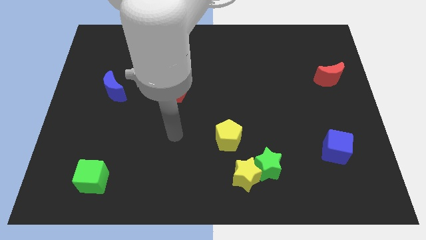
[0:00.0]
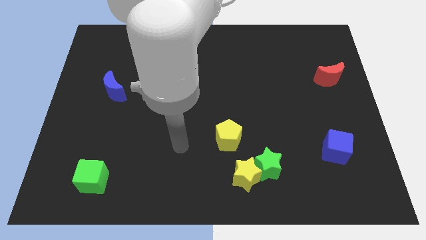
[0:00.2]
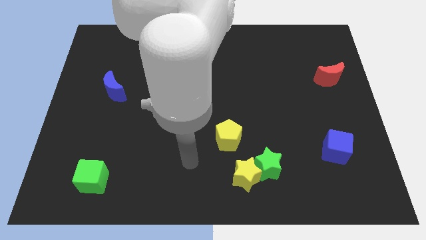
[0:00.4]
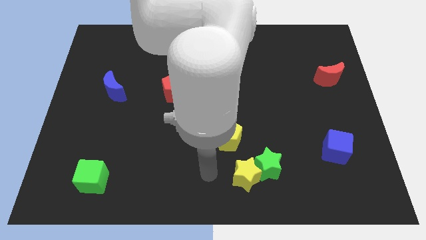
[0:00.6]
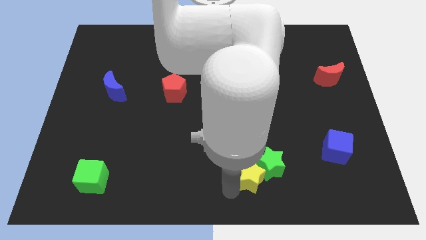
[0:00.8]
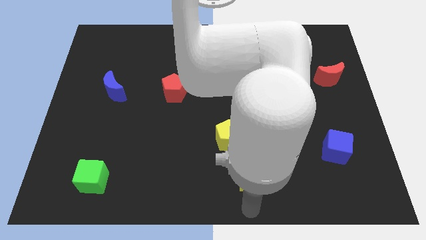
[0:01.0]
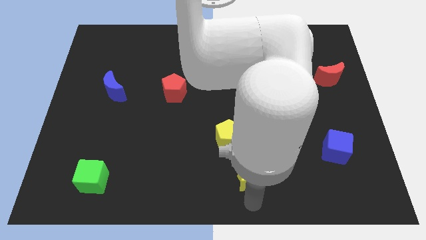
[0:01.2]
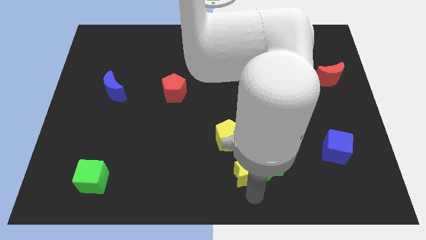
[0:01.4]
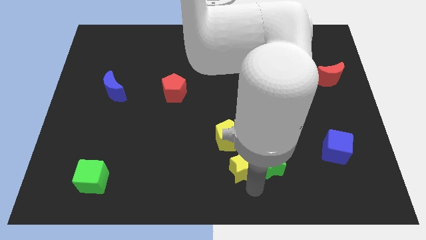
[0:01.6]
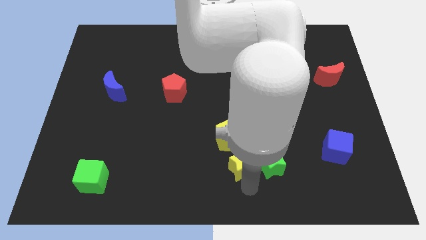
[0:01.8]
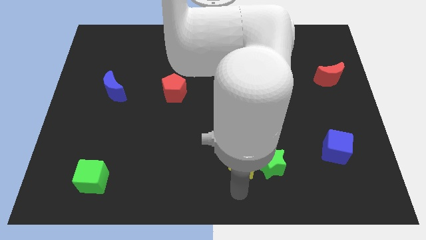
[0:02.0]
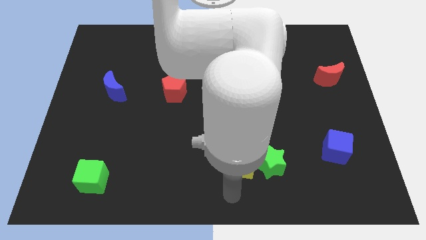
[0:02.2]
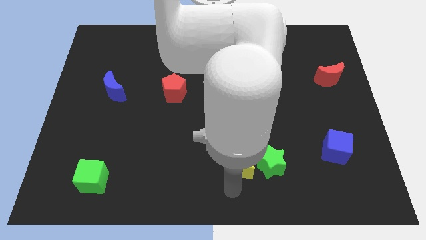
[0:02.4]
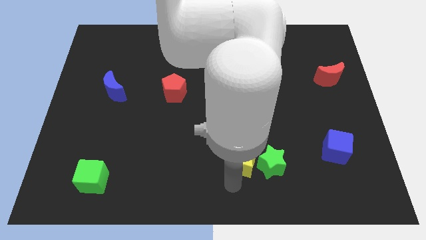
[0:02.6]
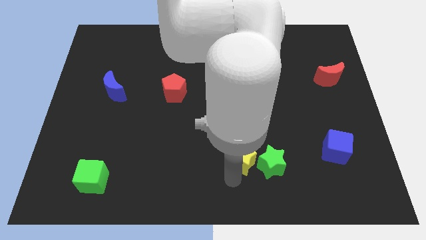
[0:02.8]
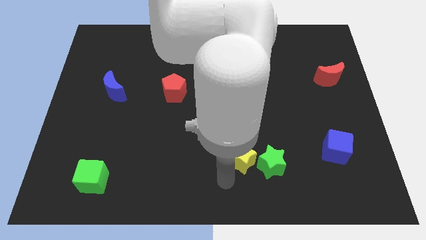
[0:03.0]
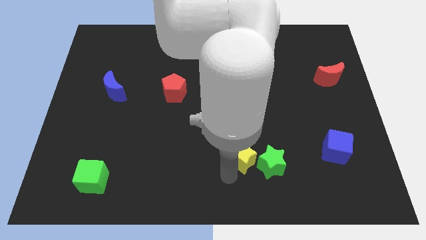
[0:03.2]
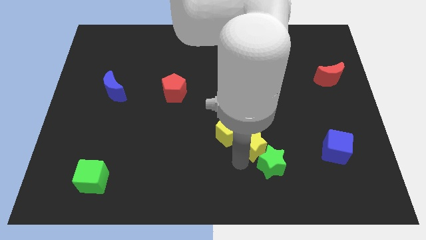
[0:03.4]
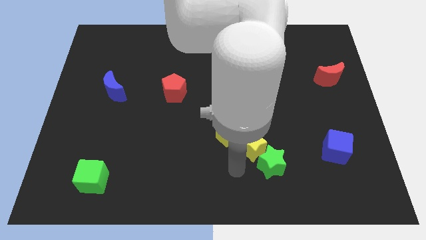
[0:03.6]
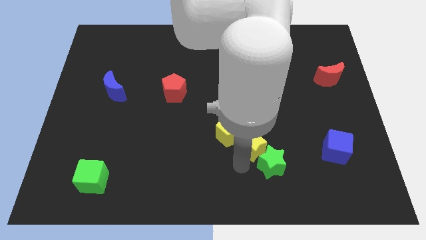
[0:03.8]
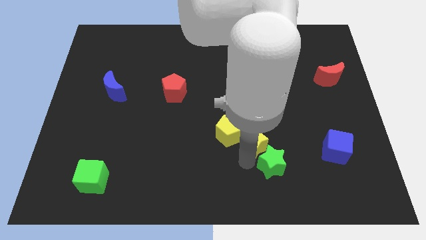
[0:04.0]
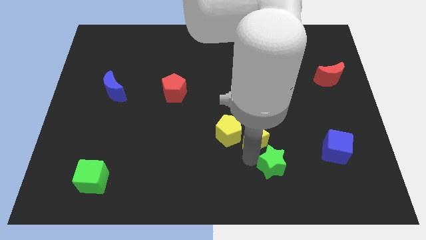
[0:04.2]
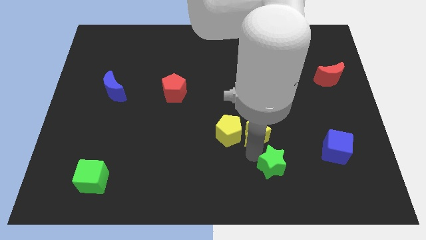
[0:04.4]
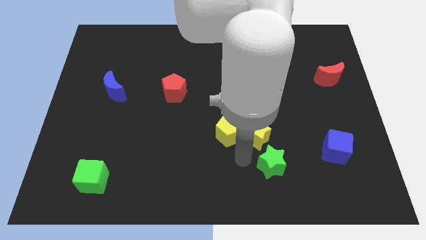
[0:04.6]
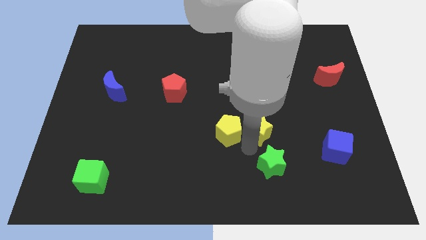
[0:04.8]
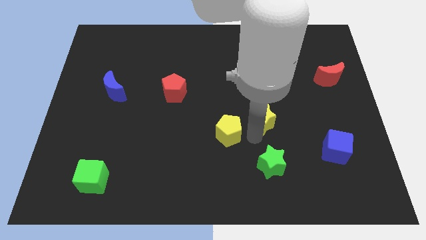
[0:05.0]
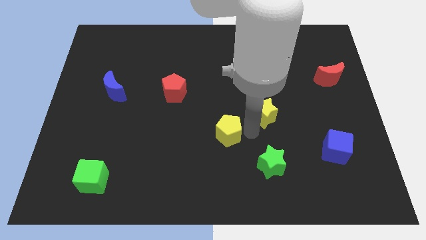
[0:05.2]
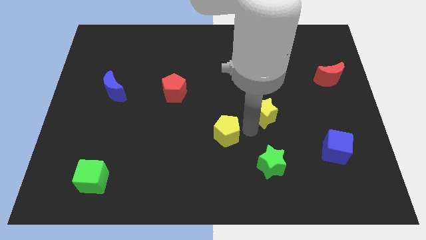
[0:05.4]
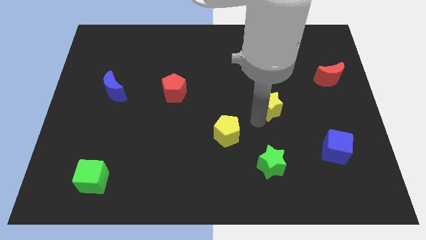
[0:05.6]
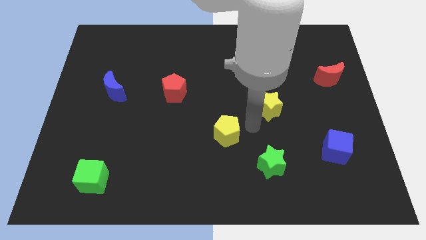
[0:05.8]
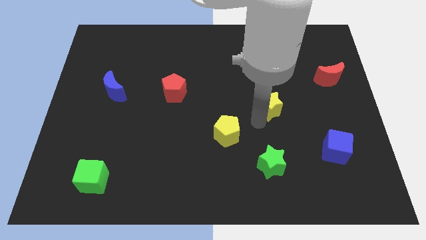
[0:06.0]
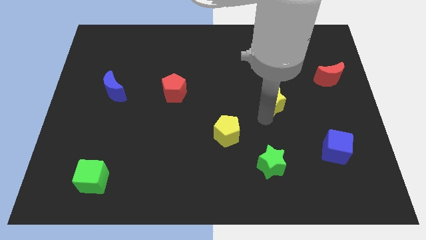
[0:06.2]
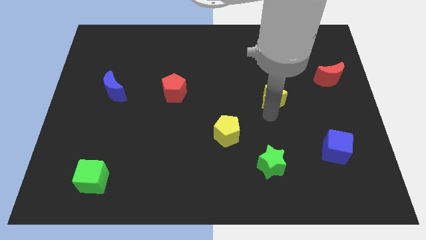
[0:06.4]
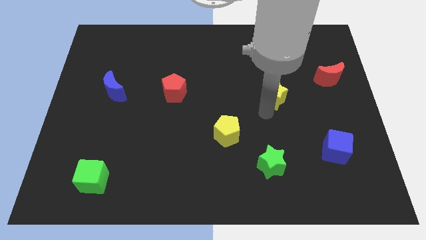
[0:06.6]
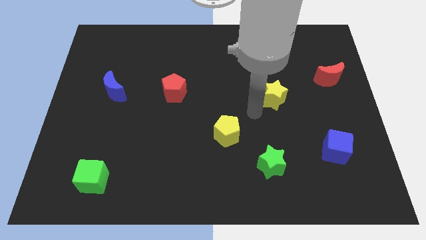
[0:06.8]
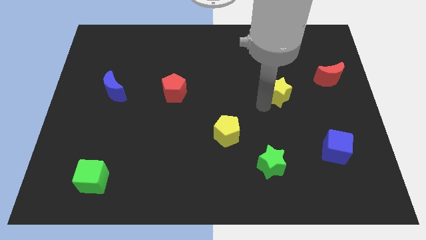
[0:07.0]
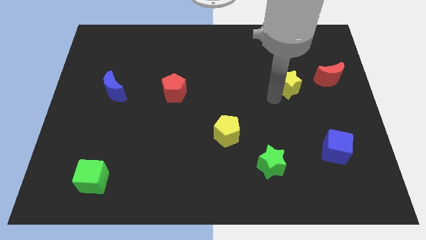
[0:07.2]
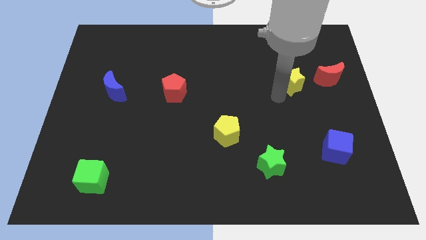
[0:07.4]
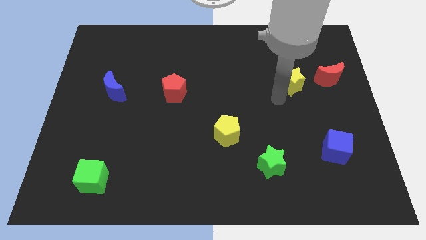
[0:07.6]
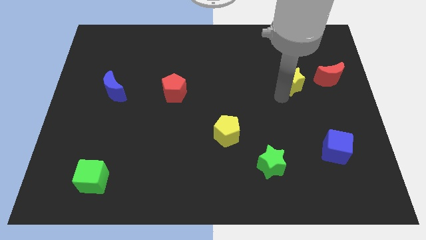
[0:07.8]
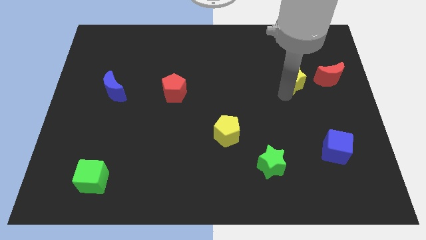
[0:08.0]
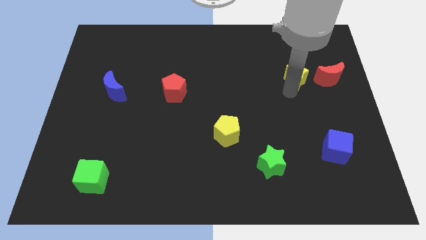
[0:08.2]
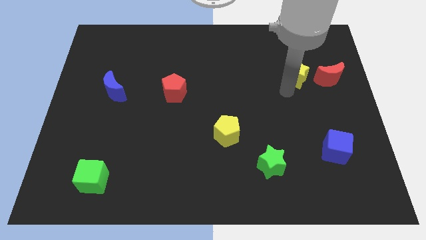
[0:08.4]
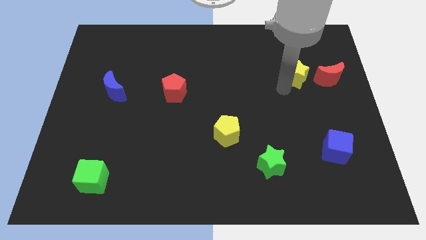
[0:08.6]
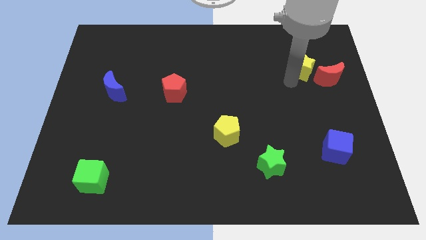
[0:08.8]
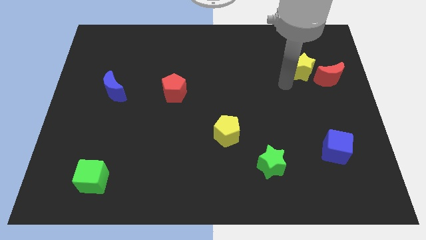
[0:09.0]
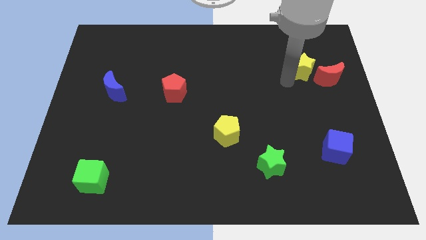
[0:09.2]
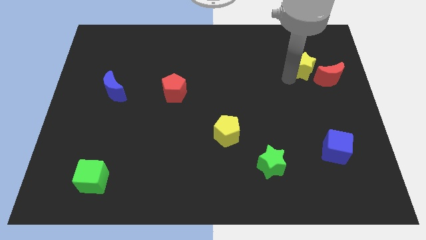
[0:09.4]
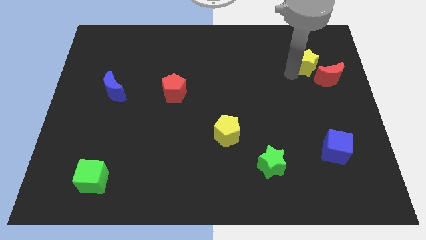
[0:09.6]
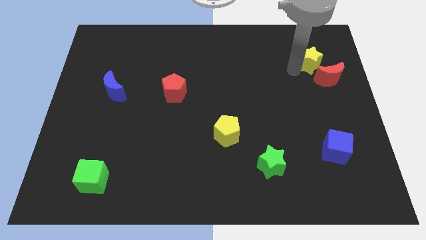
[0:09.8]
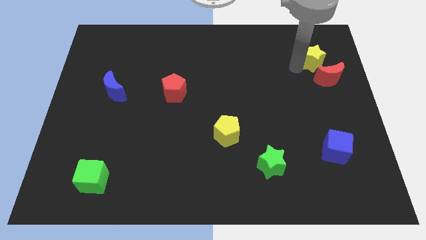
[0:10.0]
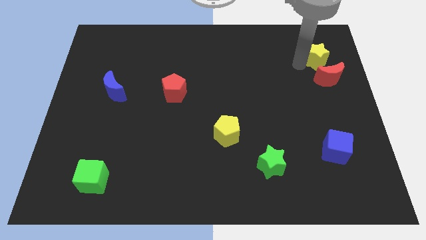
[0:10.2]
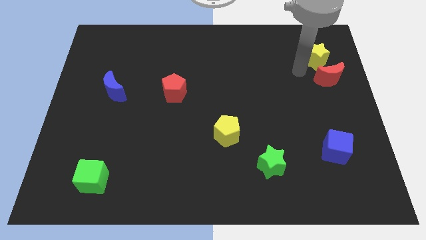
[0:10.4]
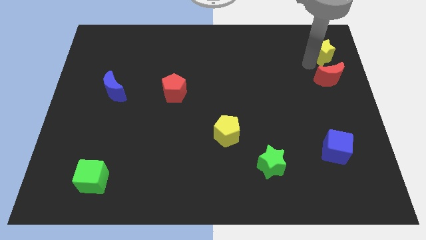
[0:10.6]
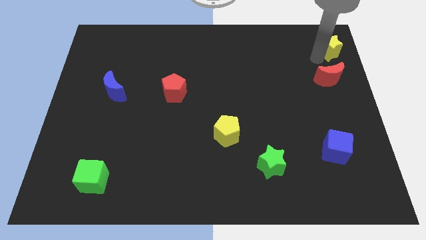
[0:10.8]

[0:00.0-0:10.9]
push the yellow star to the top right of the board
